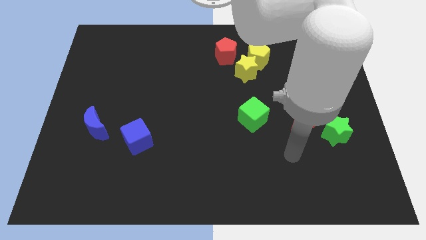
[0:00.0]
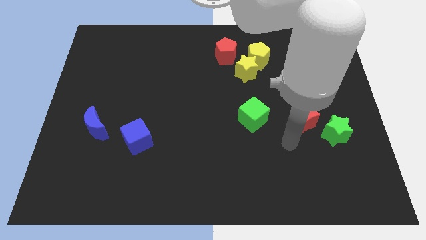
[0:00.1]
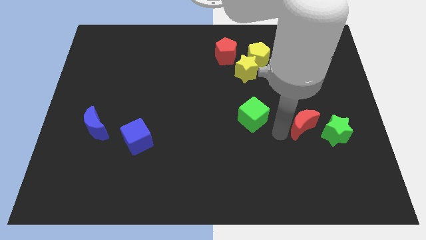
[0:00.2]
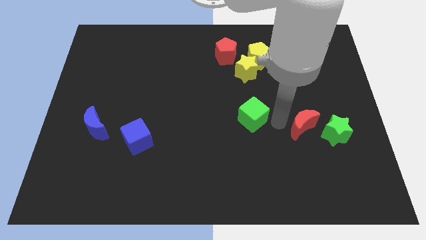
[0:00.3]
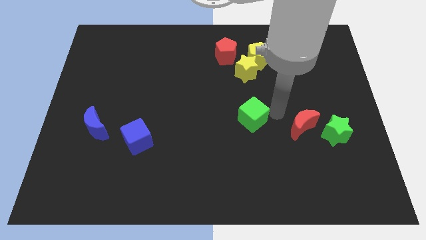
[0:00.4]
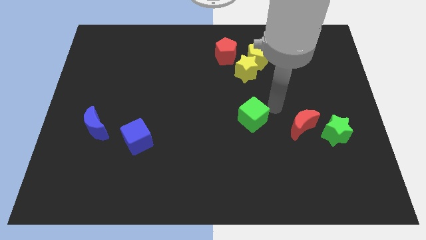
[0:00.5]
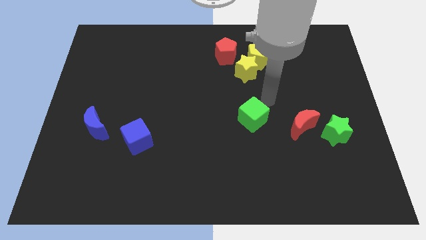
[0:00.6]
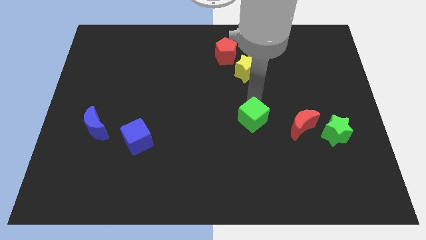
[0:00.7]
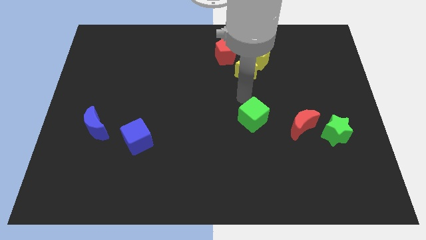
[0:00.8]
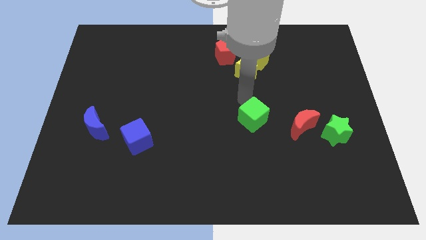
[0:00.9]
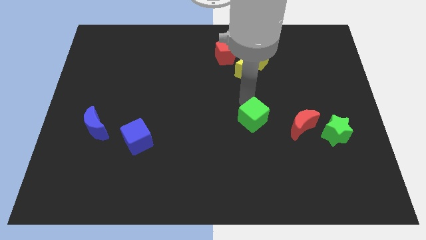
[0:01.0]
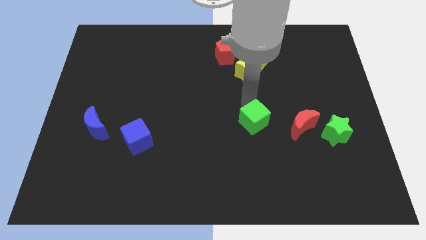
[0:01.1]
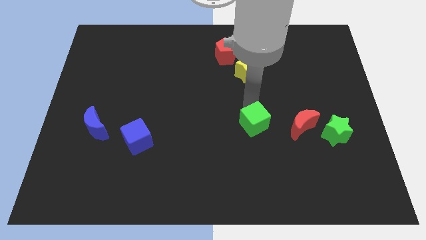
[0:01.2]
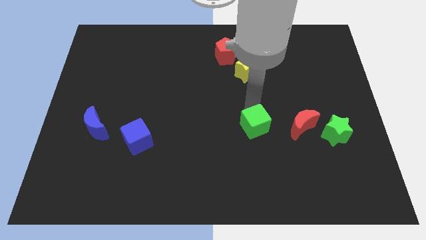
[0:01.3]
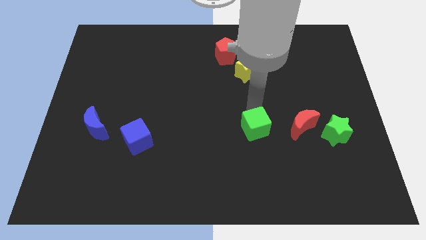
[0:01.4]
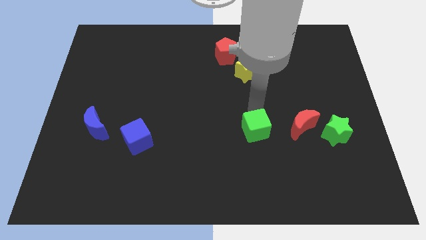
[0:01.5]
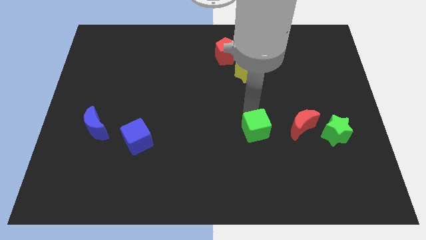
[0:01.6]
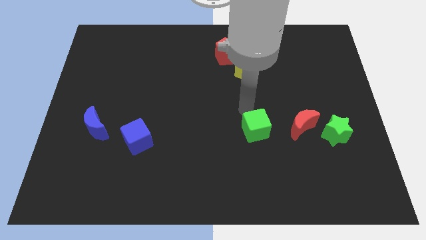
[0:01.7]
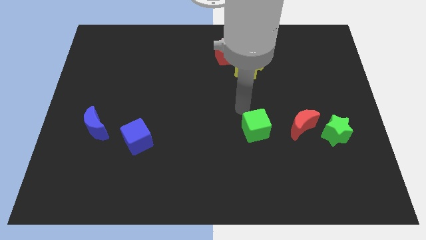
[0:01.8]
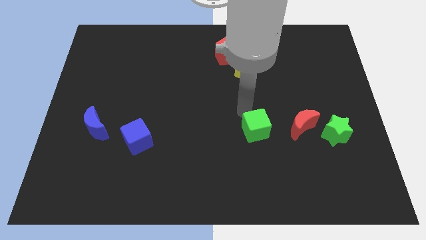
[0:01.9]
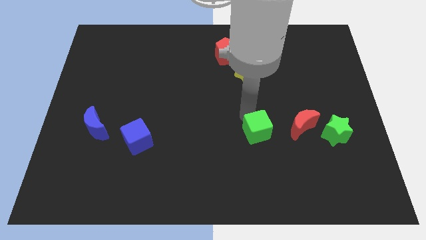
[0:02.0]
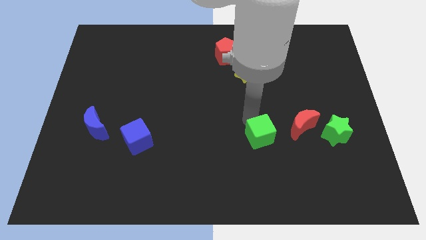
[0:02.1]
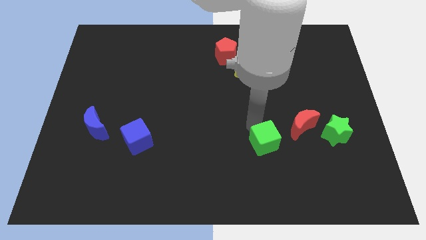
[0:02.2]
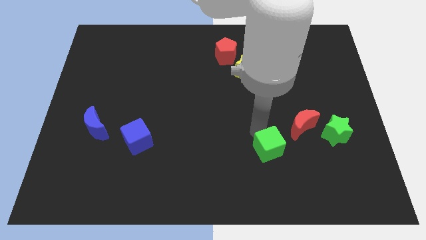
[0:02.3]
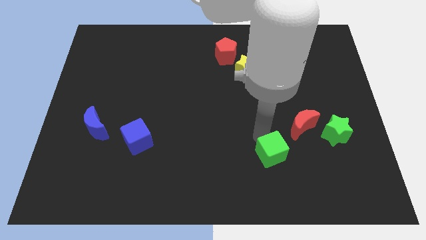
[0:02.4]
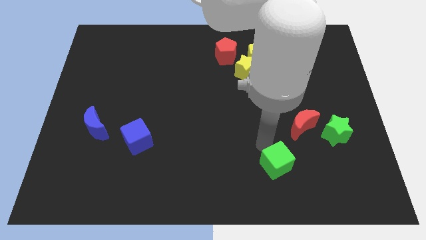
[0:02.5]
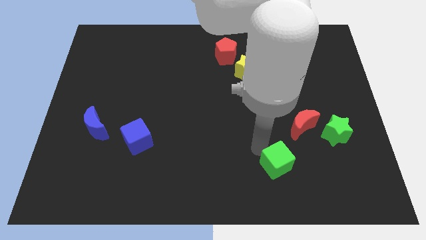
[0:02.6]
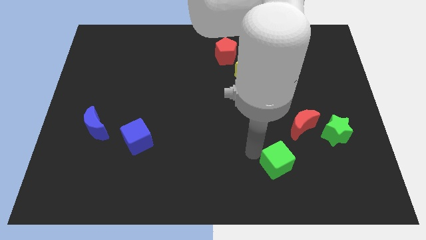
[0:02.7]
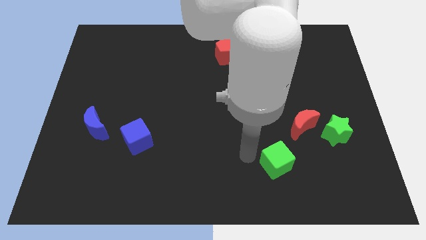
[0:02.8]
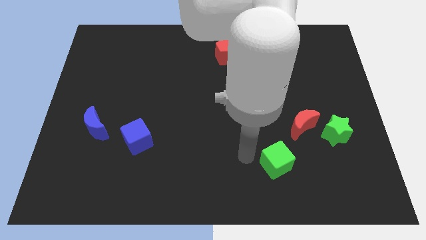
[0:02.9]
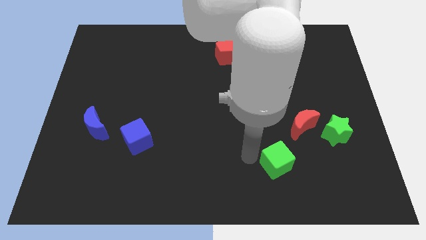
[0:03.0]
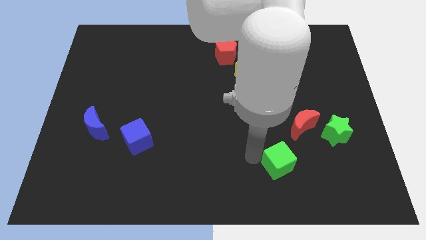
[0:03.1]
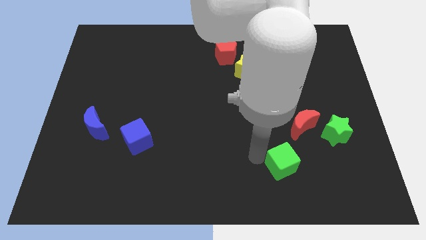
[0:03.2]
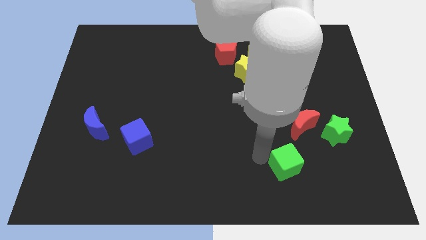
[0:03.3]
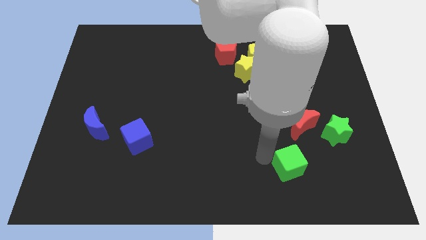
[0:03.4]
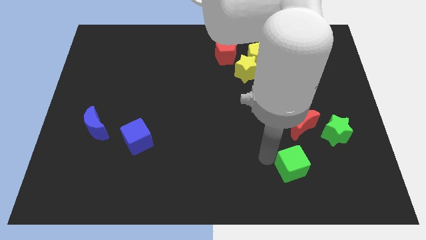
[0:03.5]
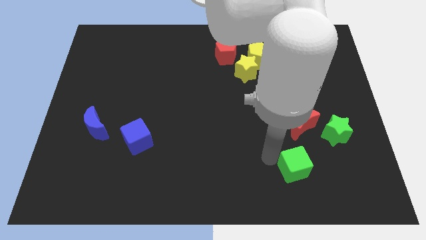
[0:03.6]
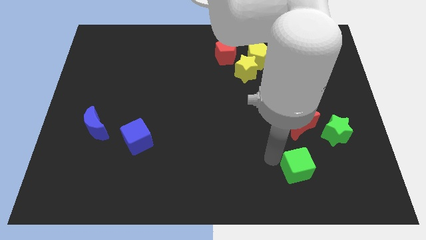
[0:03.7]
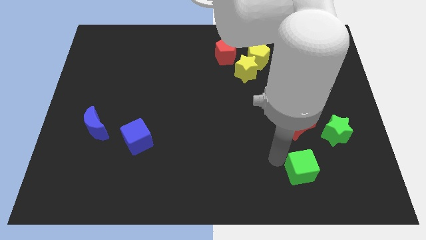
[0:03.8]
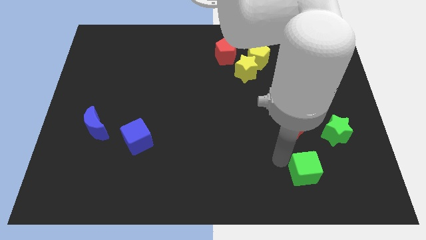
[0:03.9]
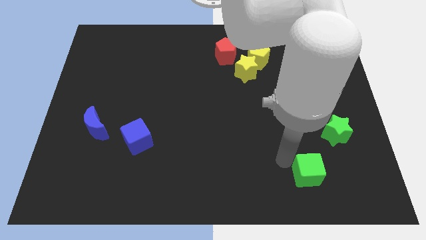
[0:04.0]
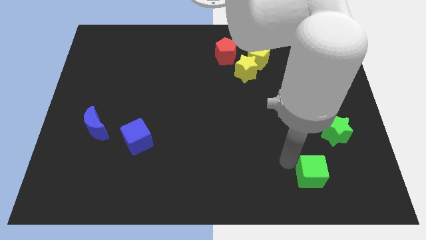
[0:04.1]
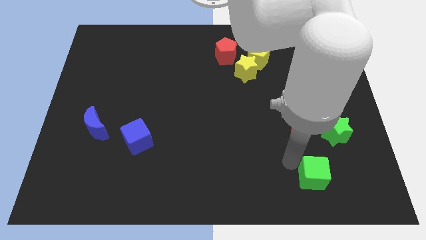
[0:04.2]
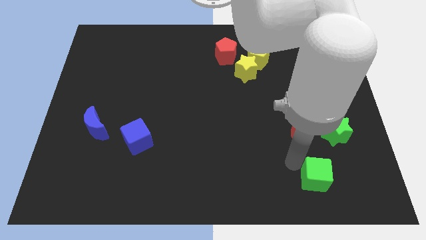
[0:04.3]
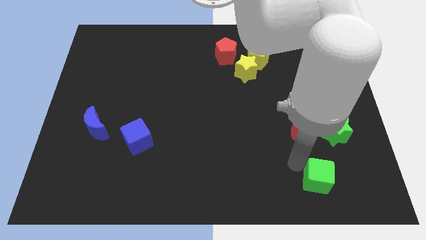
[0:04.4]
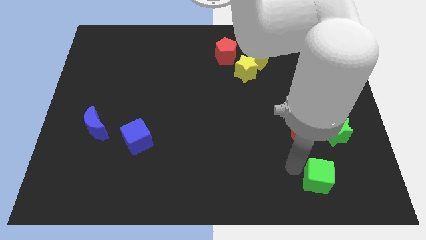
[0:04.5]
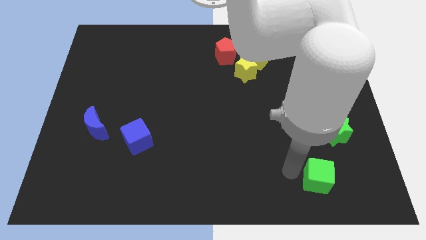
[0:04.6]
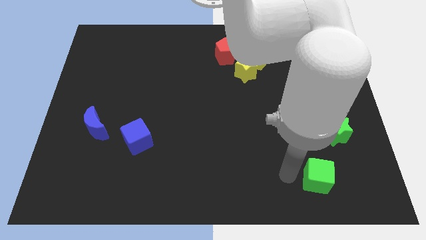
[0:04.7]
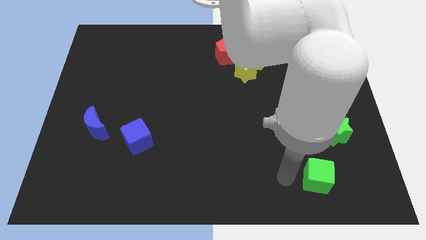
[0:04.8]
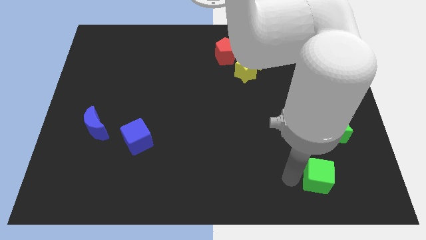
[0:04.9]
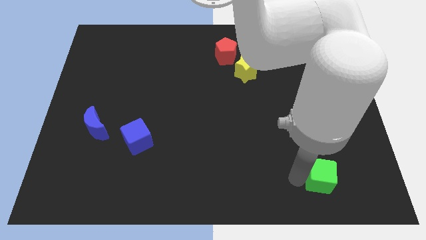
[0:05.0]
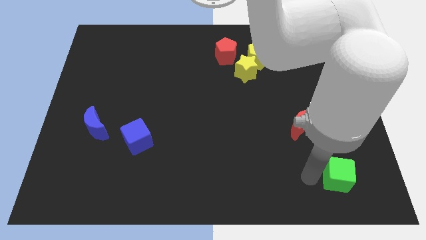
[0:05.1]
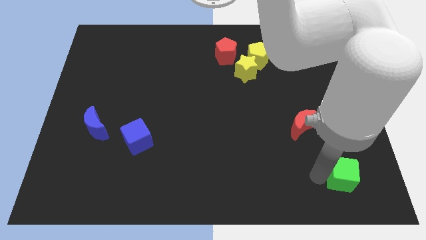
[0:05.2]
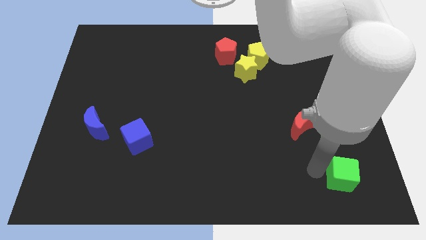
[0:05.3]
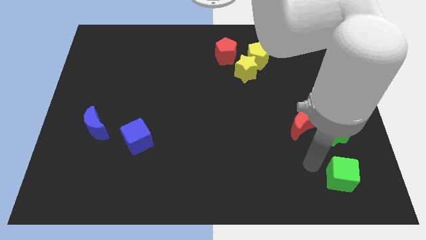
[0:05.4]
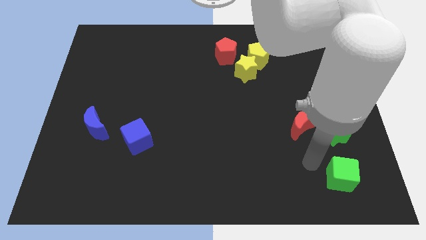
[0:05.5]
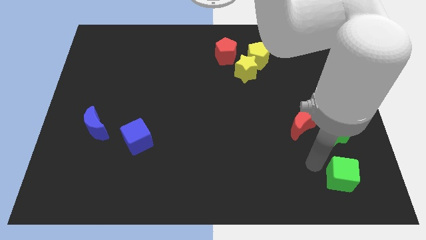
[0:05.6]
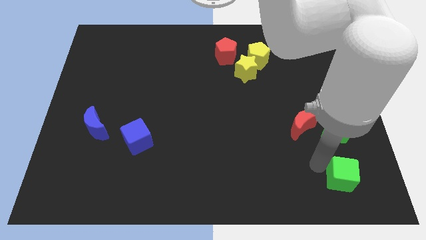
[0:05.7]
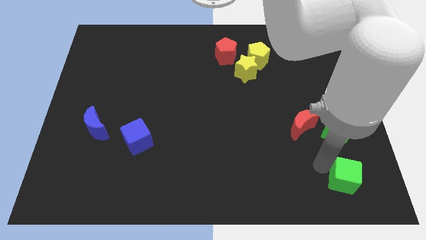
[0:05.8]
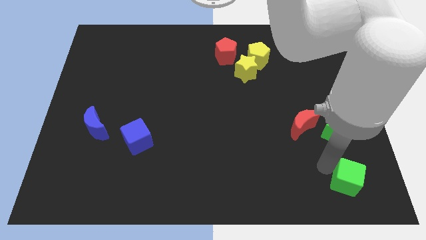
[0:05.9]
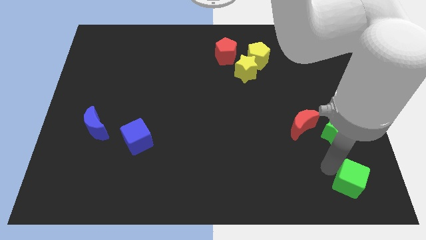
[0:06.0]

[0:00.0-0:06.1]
move the green cube to the bottom right

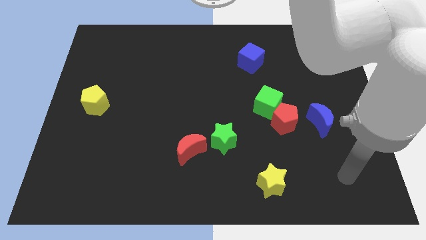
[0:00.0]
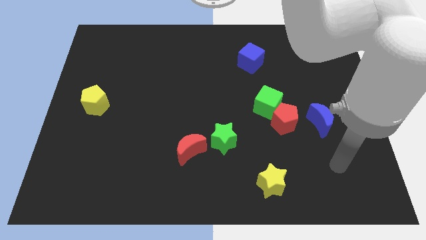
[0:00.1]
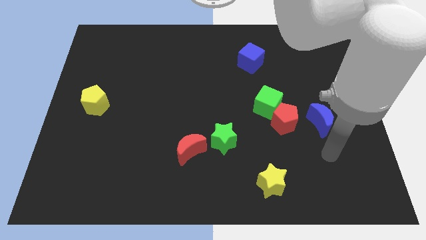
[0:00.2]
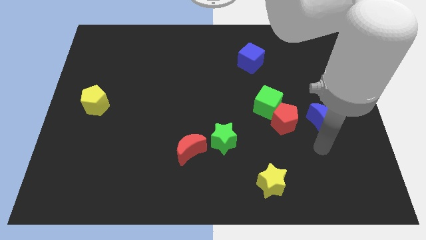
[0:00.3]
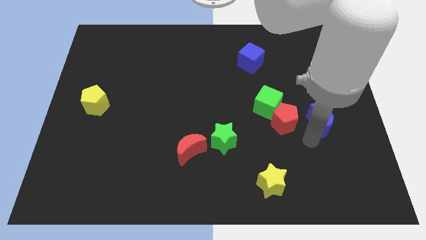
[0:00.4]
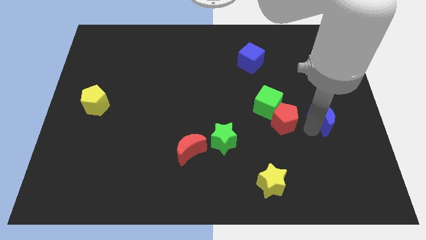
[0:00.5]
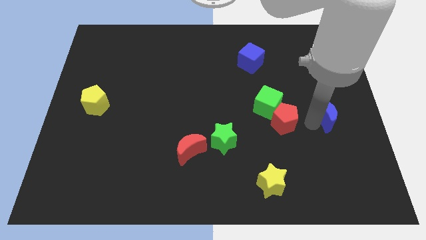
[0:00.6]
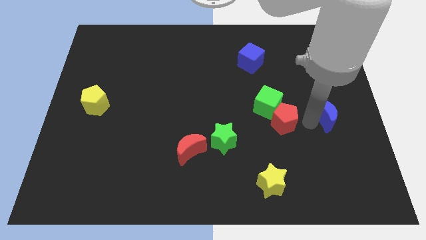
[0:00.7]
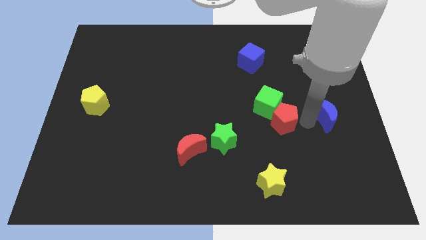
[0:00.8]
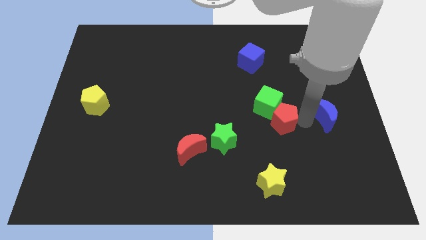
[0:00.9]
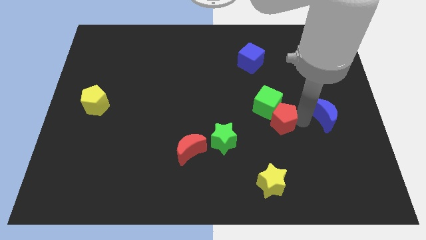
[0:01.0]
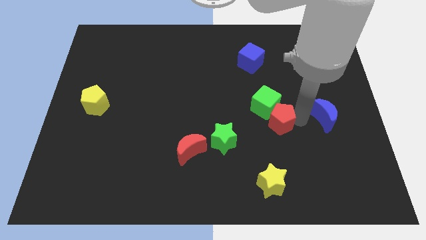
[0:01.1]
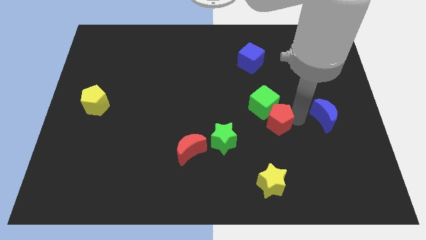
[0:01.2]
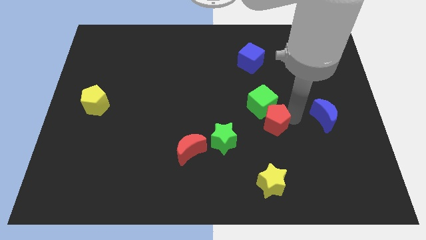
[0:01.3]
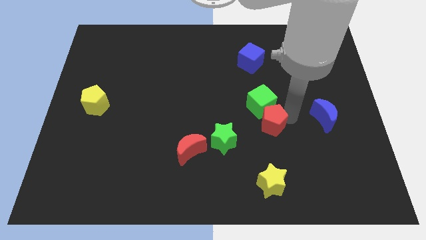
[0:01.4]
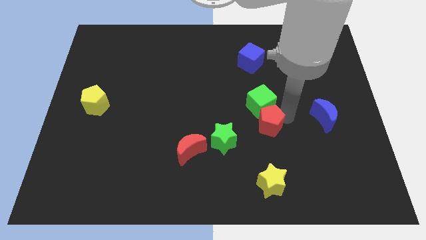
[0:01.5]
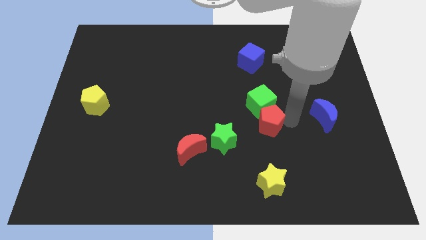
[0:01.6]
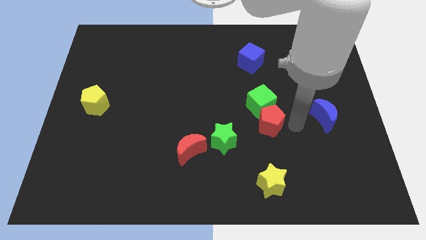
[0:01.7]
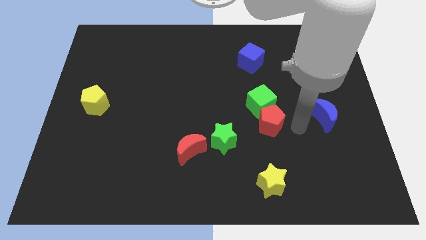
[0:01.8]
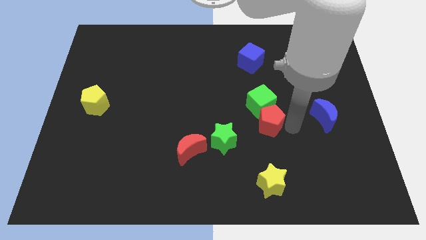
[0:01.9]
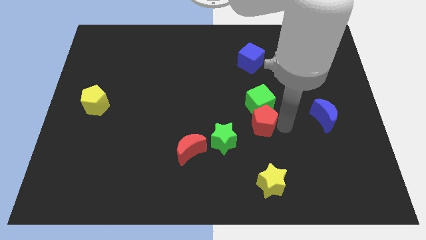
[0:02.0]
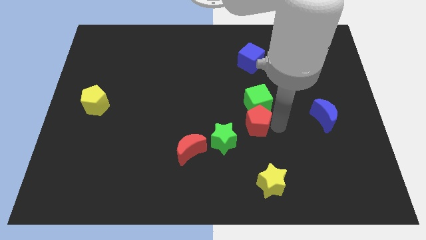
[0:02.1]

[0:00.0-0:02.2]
push the red pentagon to the middle
